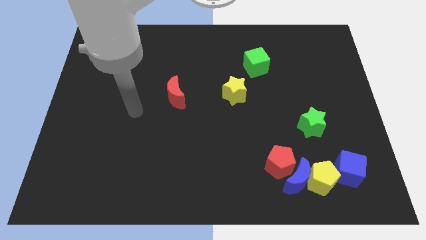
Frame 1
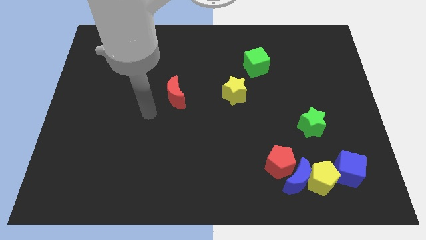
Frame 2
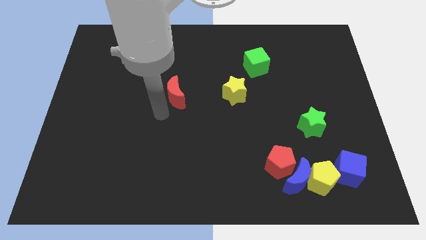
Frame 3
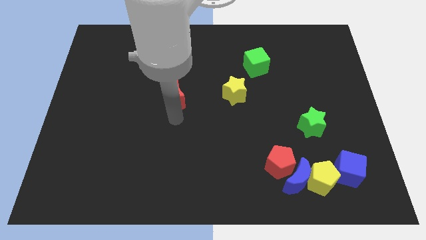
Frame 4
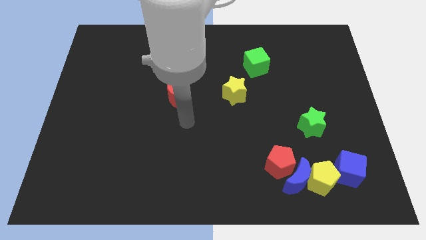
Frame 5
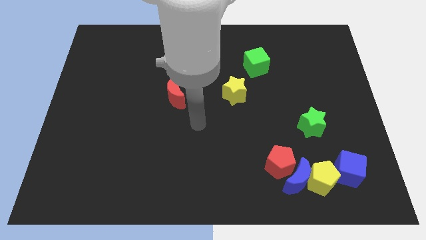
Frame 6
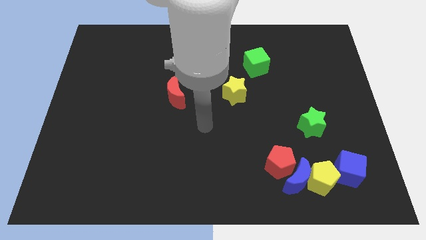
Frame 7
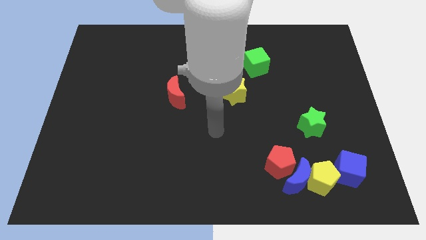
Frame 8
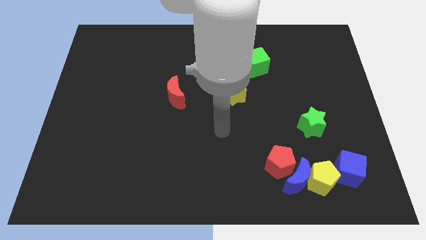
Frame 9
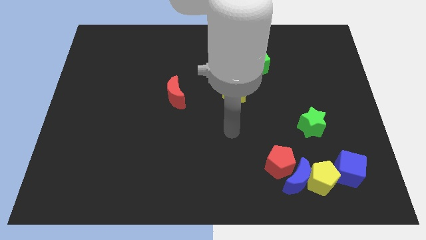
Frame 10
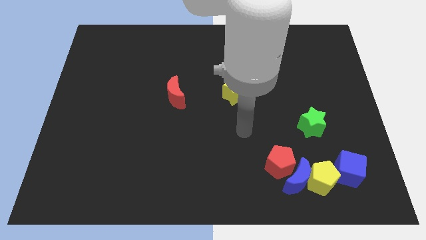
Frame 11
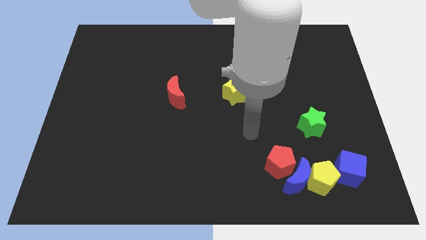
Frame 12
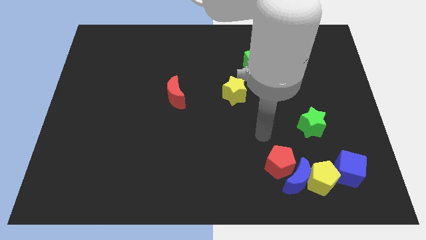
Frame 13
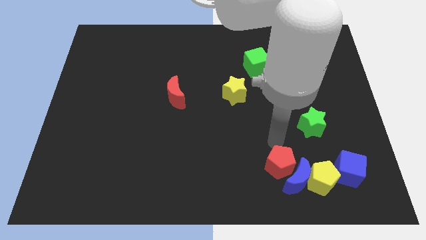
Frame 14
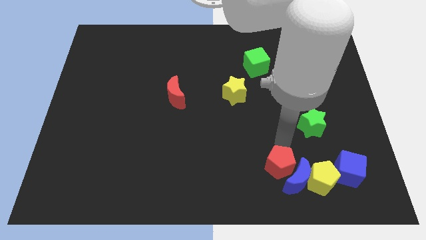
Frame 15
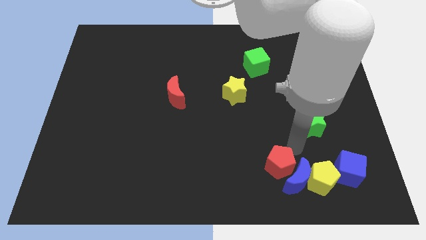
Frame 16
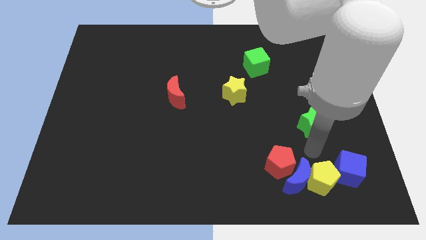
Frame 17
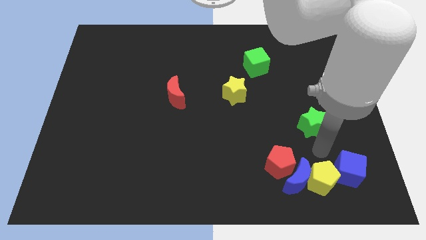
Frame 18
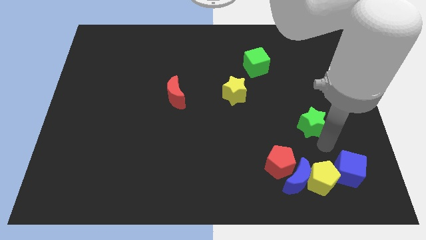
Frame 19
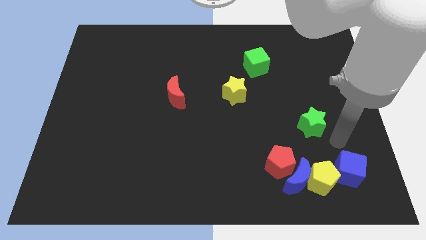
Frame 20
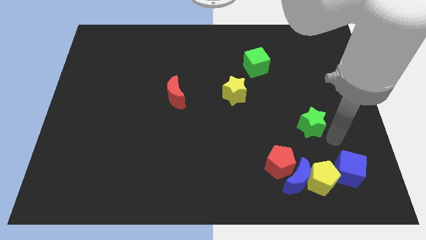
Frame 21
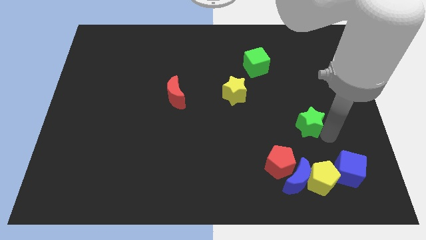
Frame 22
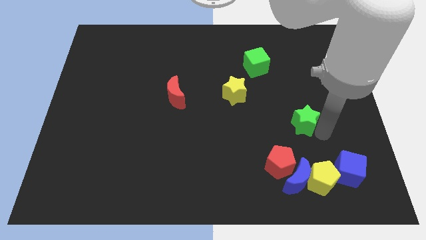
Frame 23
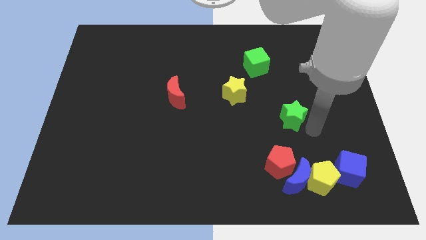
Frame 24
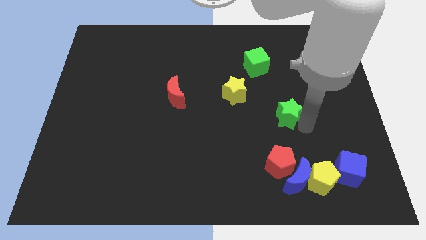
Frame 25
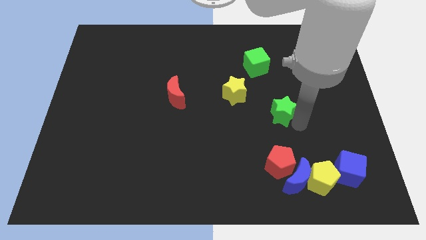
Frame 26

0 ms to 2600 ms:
move the green star a little upwards and then to the left

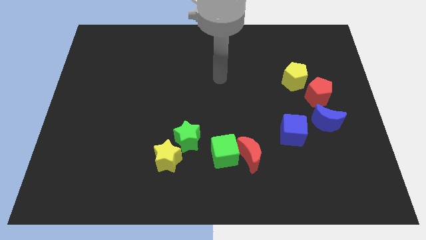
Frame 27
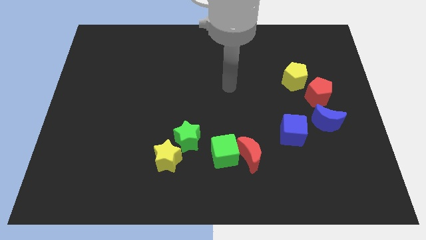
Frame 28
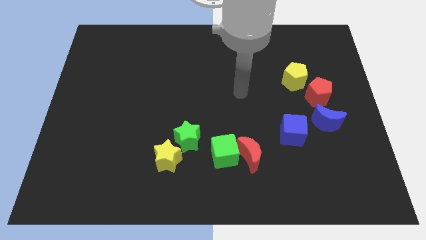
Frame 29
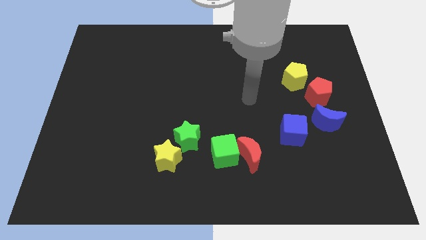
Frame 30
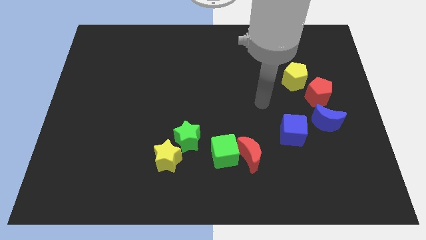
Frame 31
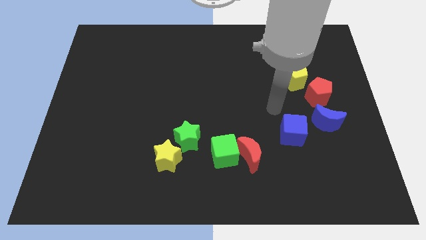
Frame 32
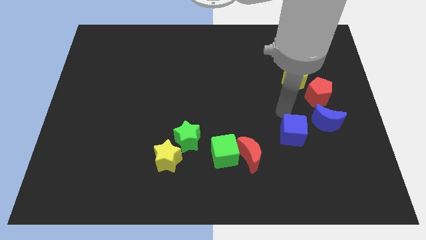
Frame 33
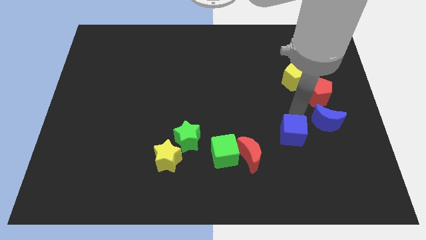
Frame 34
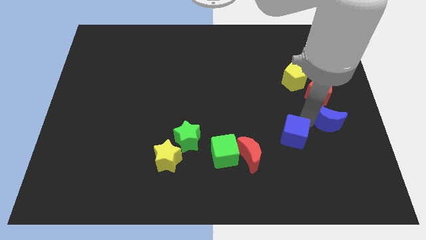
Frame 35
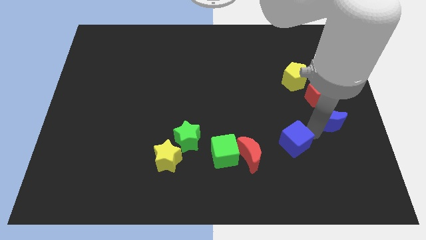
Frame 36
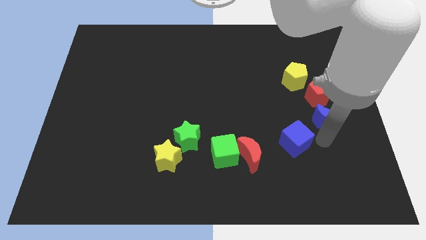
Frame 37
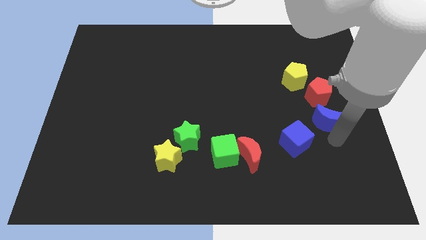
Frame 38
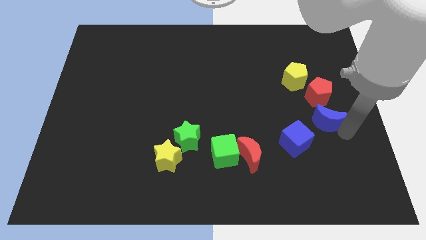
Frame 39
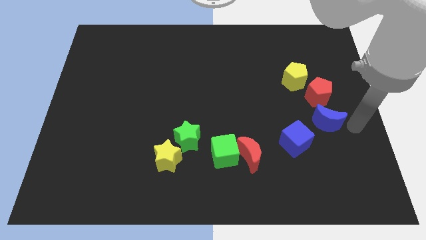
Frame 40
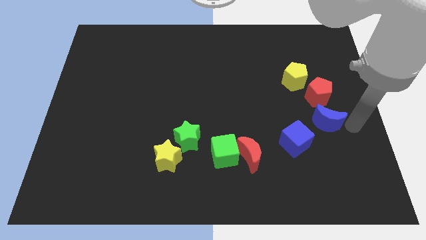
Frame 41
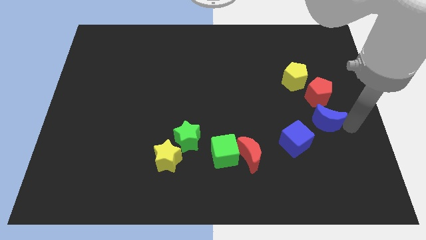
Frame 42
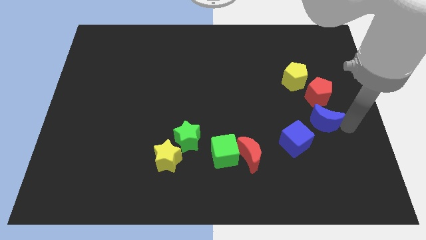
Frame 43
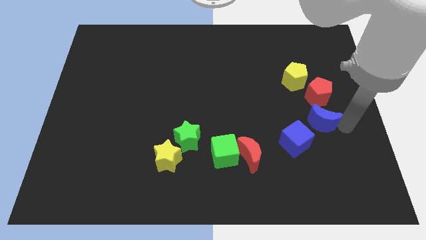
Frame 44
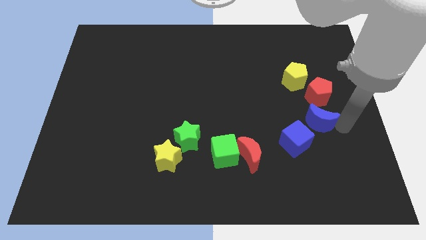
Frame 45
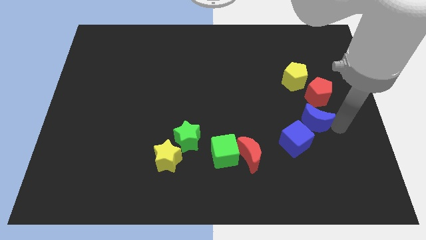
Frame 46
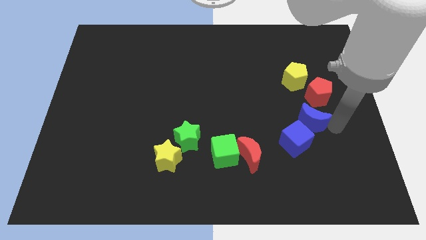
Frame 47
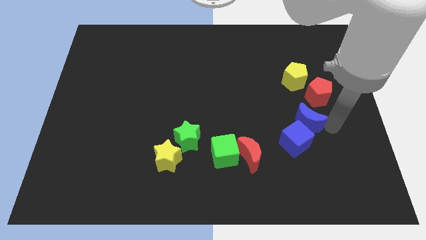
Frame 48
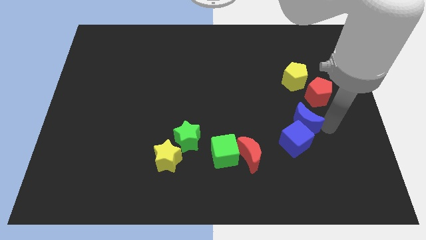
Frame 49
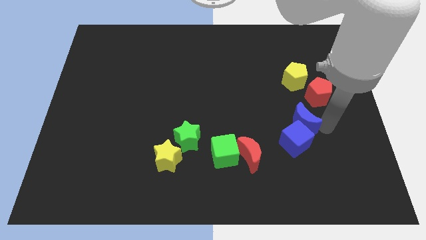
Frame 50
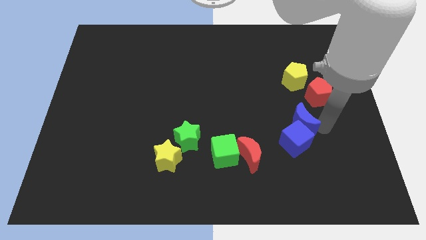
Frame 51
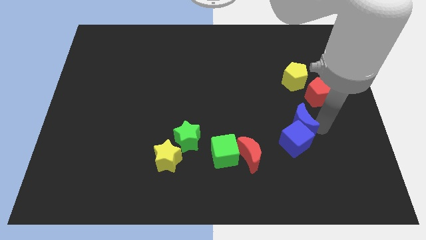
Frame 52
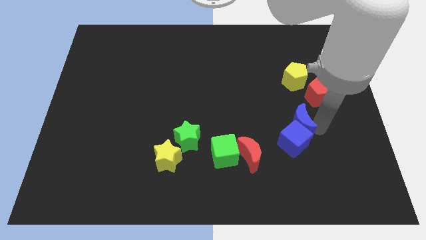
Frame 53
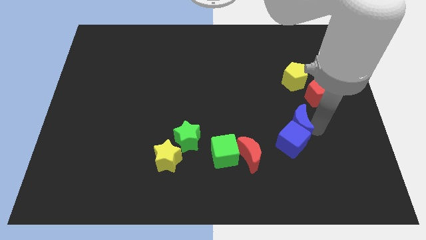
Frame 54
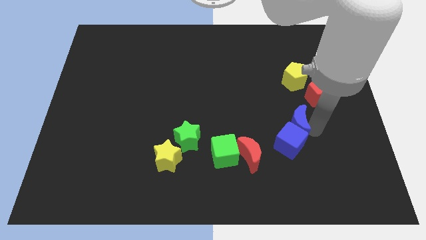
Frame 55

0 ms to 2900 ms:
slightly move the blue moon left

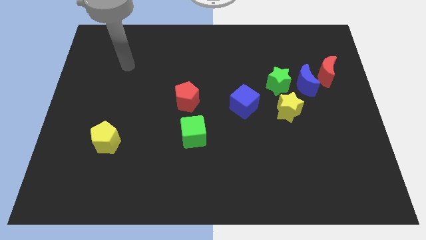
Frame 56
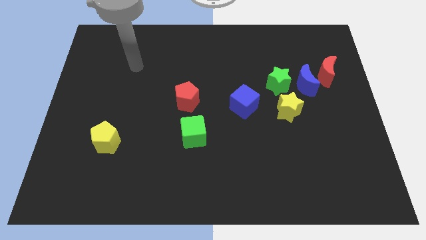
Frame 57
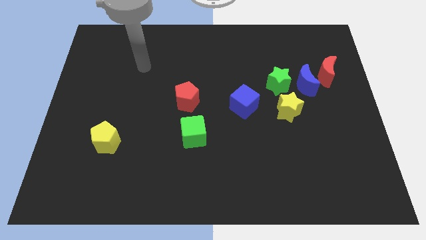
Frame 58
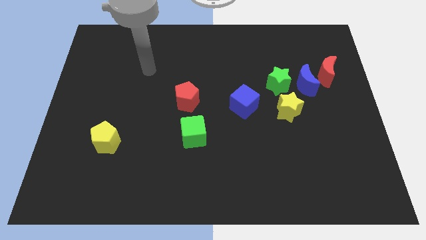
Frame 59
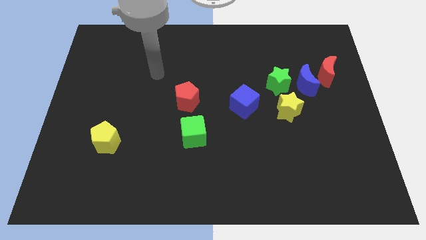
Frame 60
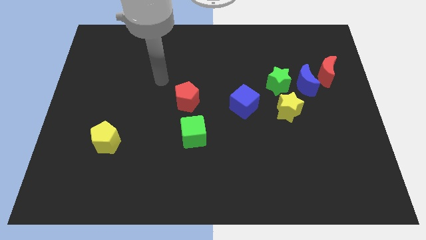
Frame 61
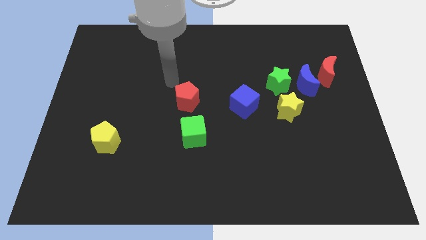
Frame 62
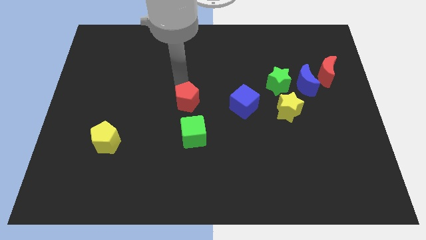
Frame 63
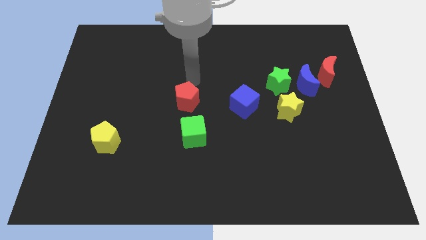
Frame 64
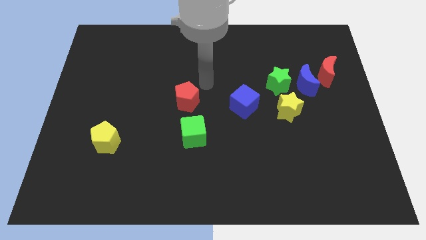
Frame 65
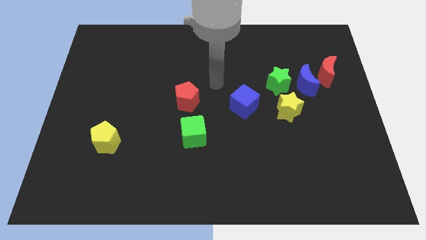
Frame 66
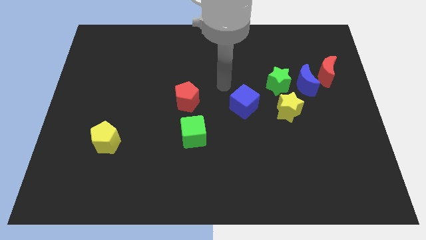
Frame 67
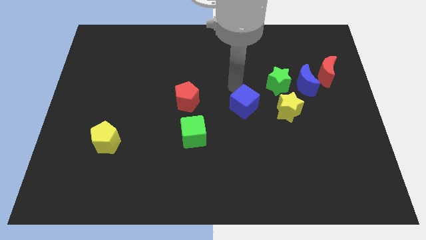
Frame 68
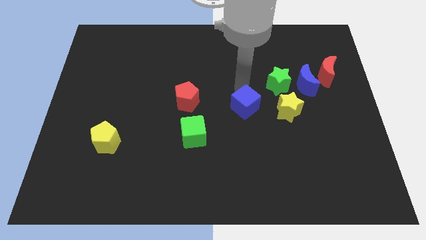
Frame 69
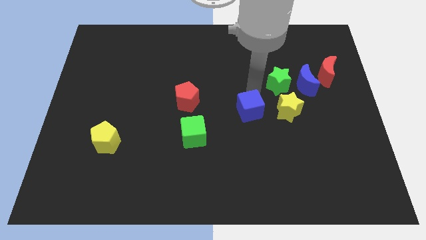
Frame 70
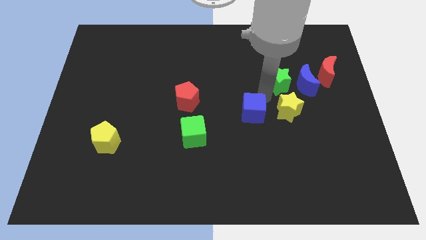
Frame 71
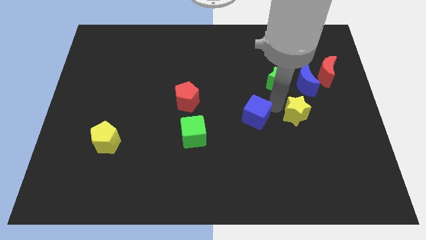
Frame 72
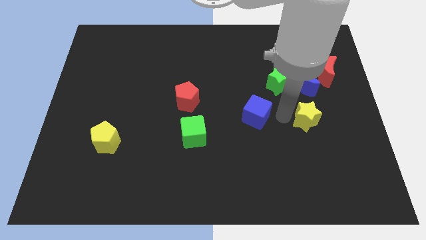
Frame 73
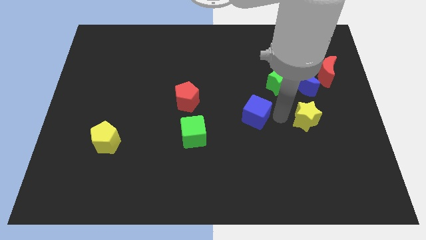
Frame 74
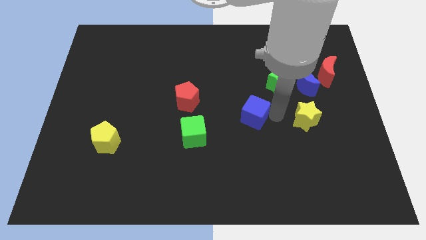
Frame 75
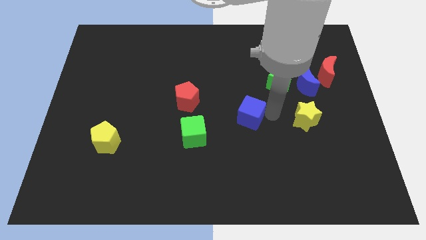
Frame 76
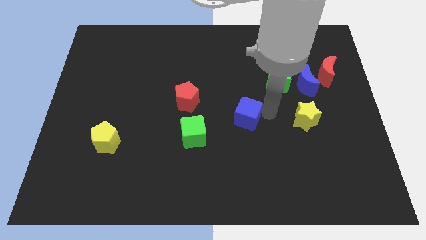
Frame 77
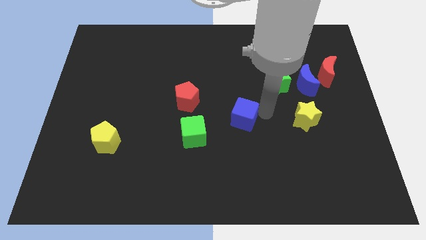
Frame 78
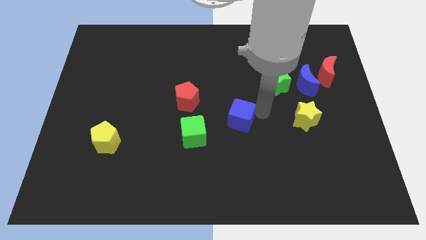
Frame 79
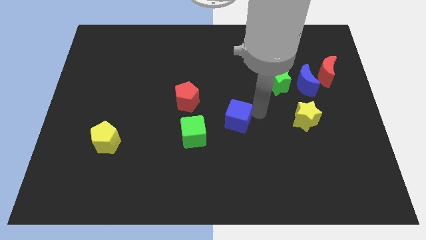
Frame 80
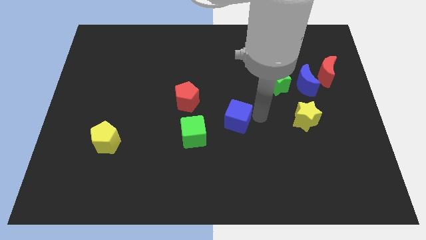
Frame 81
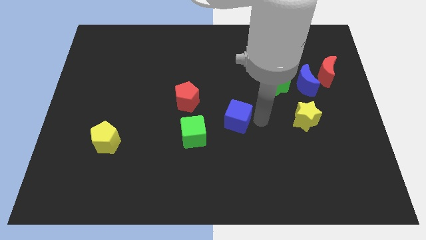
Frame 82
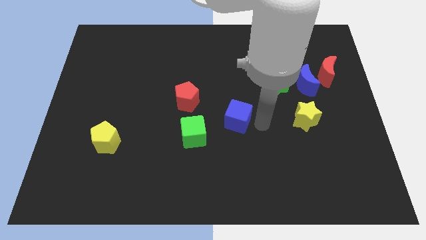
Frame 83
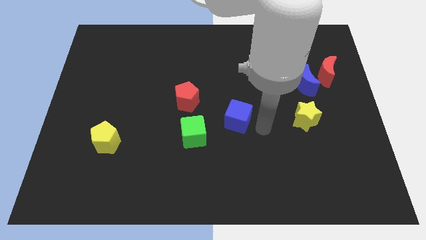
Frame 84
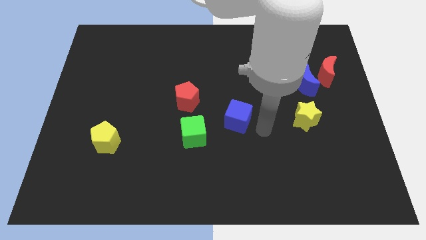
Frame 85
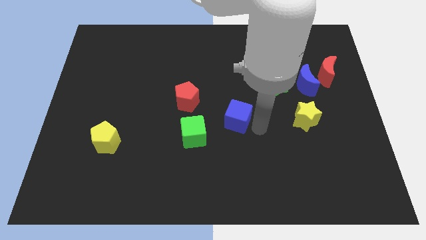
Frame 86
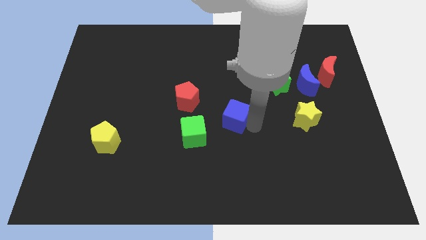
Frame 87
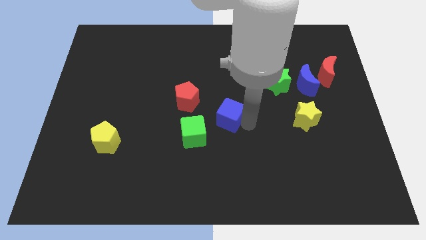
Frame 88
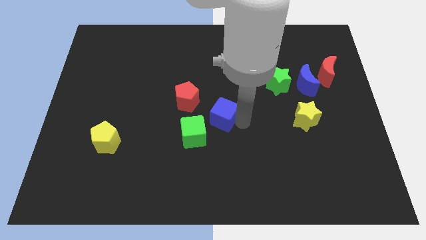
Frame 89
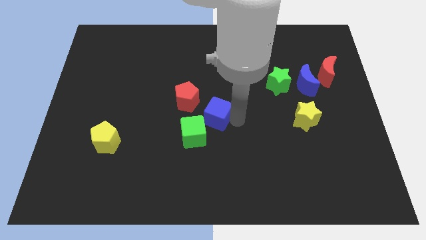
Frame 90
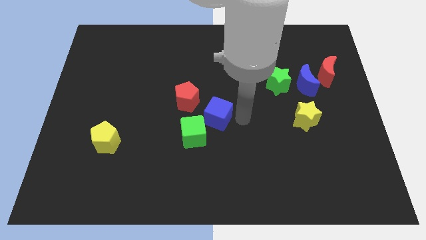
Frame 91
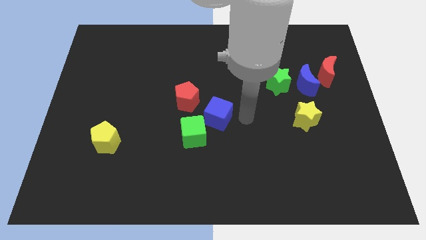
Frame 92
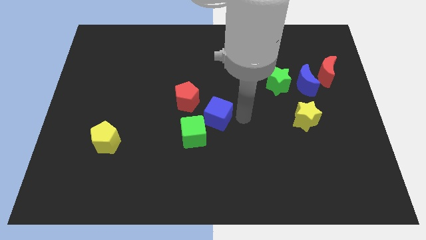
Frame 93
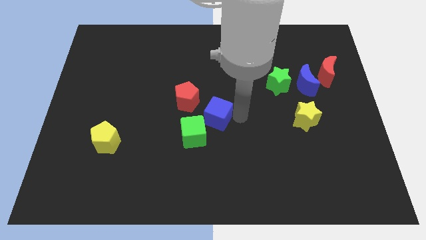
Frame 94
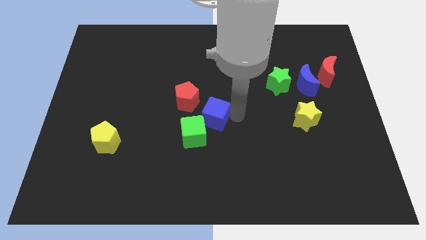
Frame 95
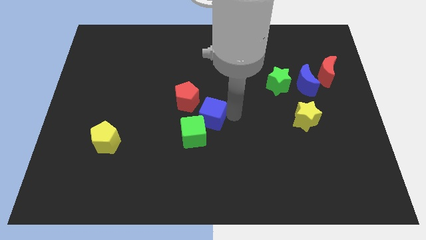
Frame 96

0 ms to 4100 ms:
push the blue cube a bit left
